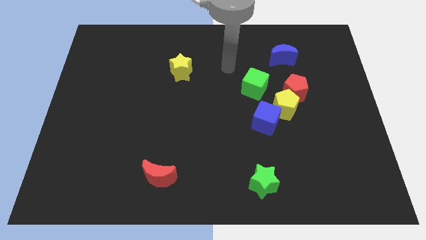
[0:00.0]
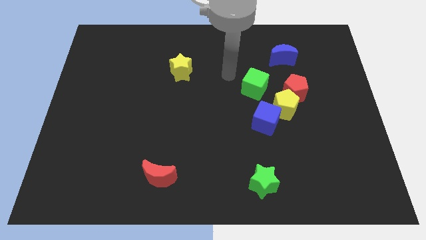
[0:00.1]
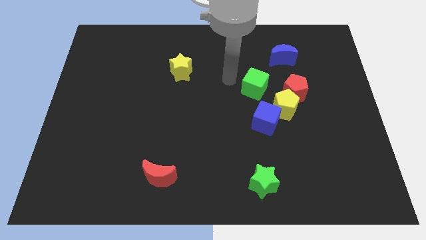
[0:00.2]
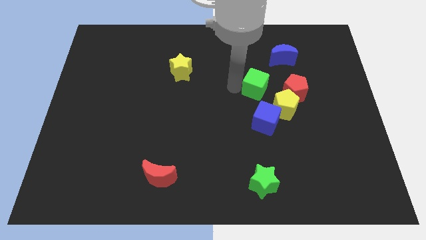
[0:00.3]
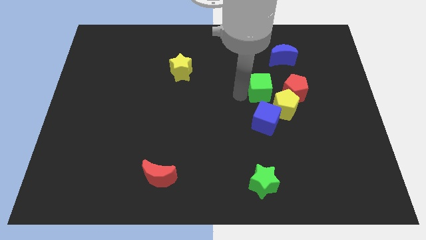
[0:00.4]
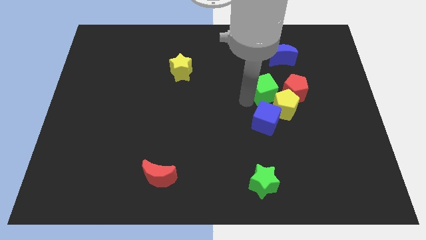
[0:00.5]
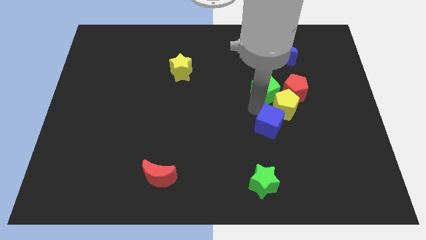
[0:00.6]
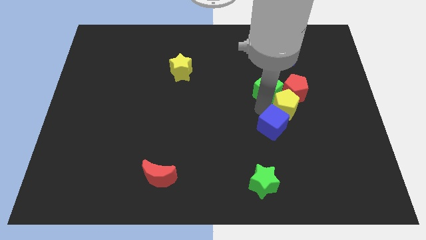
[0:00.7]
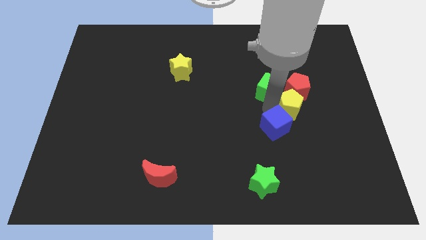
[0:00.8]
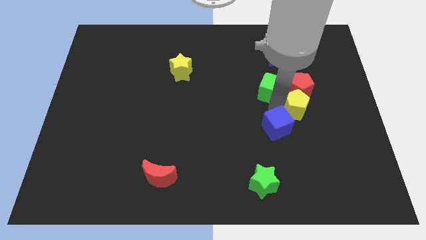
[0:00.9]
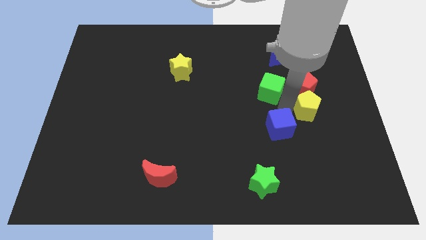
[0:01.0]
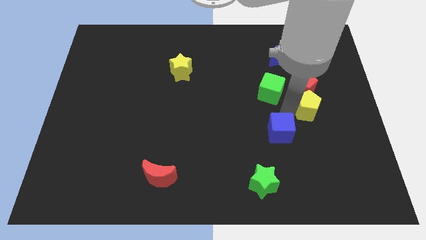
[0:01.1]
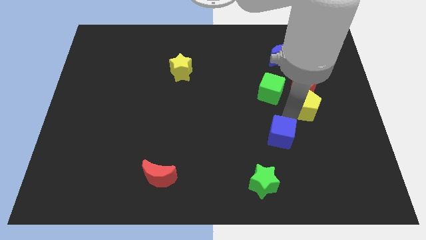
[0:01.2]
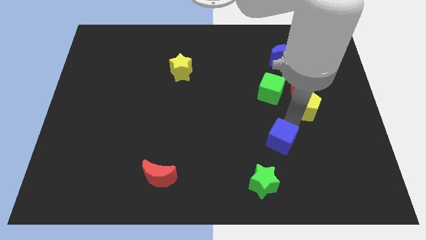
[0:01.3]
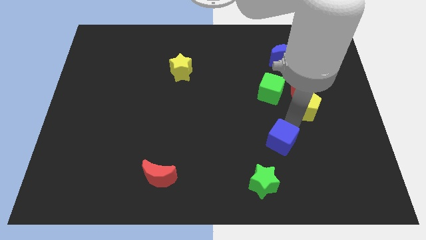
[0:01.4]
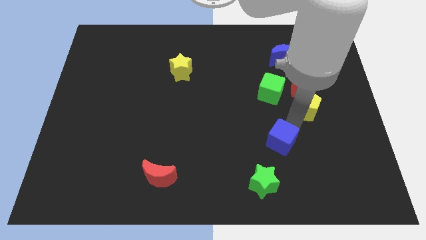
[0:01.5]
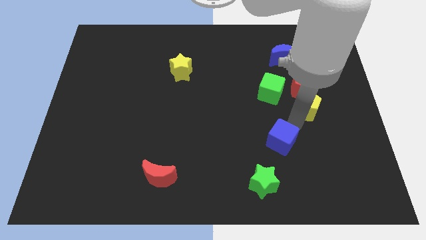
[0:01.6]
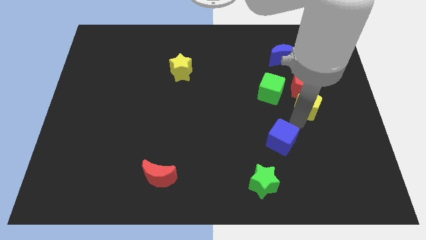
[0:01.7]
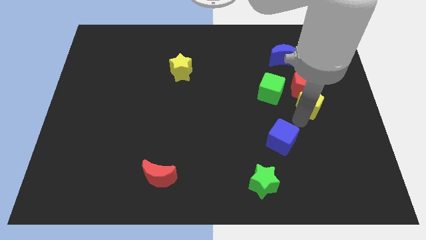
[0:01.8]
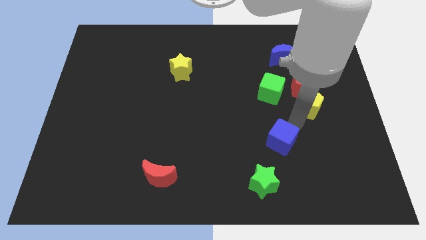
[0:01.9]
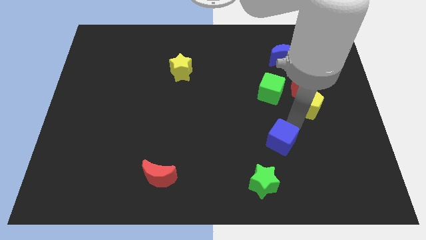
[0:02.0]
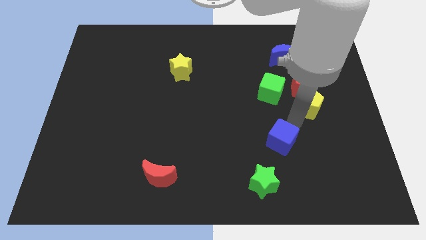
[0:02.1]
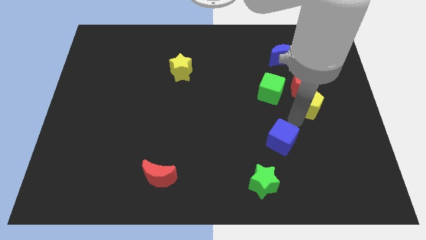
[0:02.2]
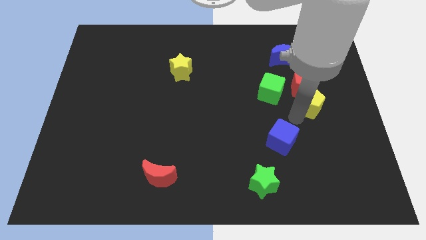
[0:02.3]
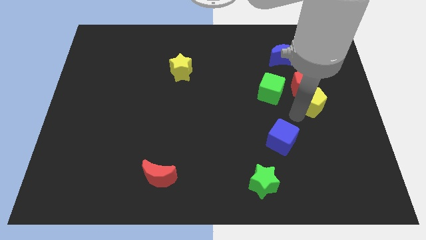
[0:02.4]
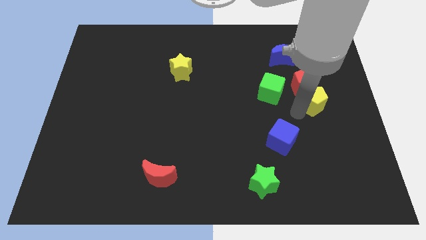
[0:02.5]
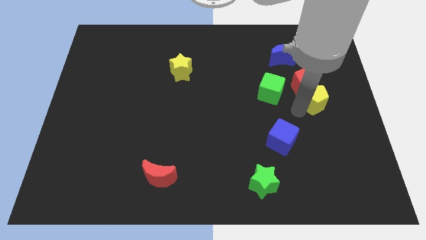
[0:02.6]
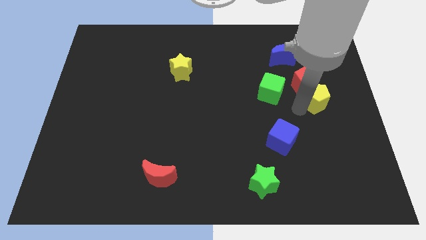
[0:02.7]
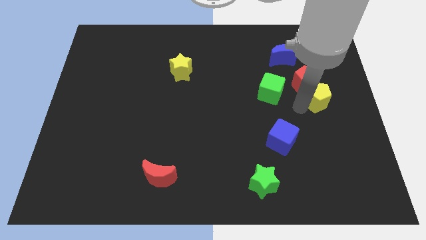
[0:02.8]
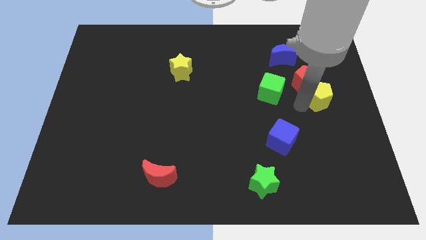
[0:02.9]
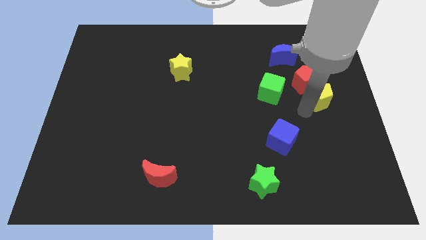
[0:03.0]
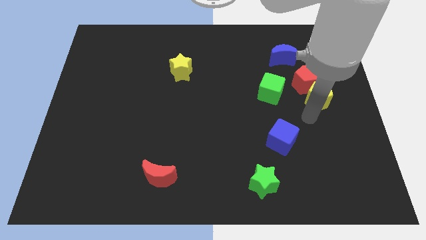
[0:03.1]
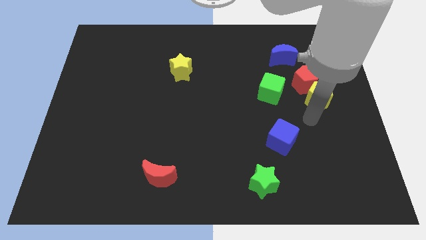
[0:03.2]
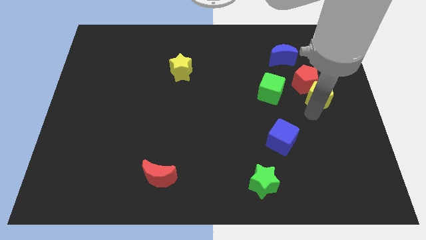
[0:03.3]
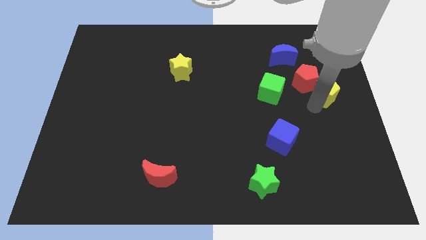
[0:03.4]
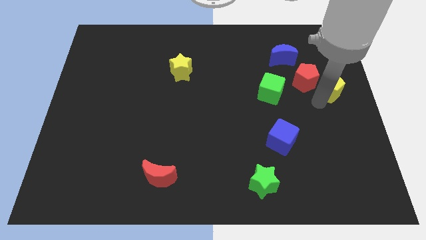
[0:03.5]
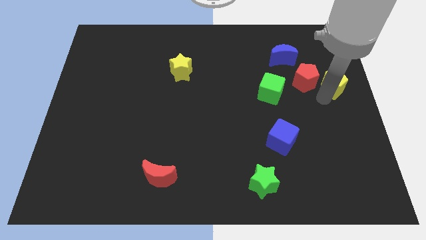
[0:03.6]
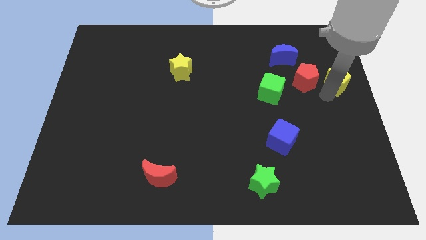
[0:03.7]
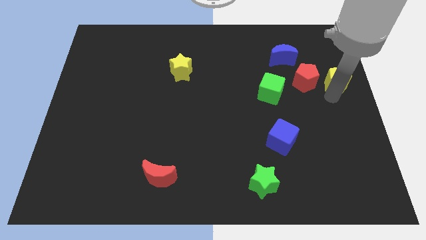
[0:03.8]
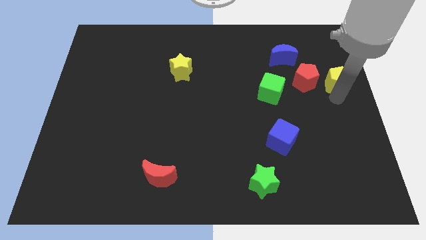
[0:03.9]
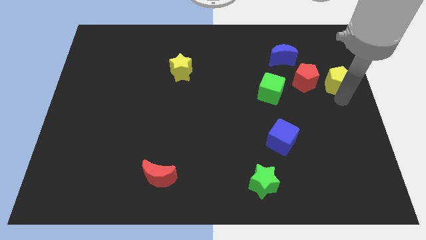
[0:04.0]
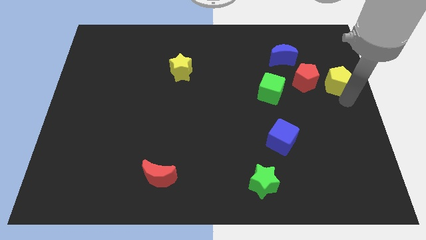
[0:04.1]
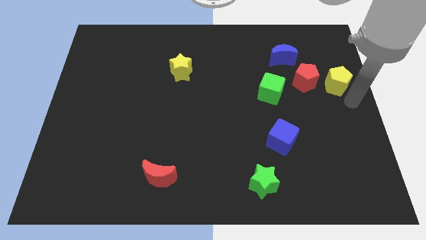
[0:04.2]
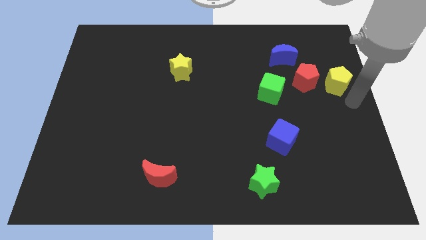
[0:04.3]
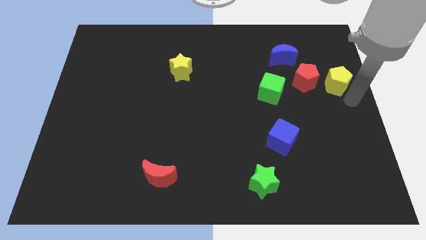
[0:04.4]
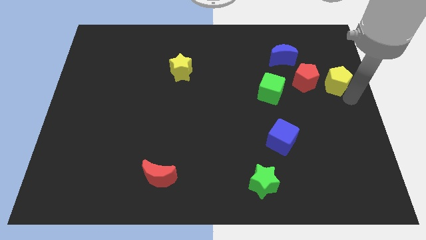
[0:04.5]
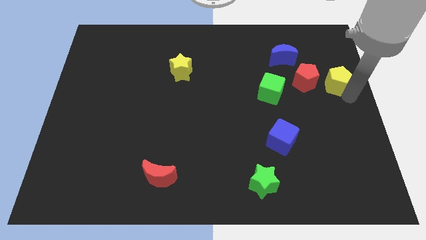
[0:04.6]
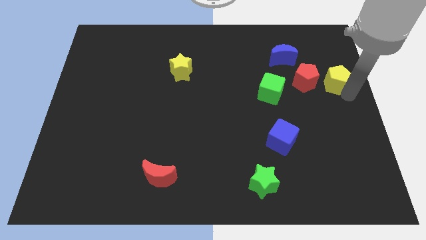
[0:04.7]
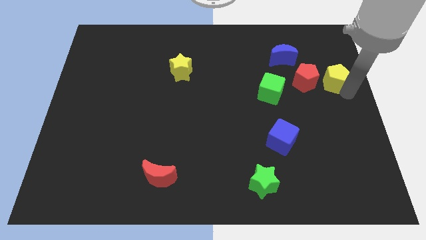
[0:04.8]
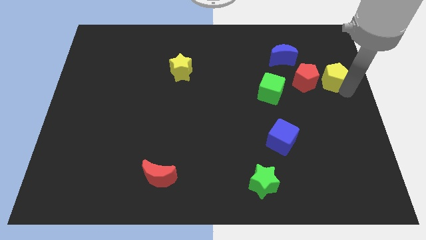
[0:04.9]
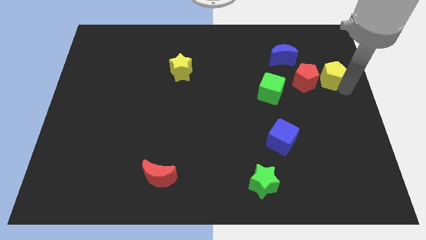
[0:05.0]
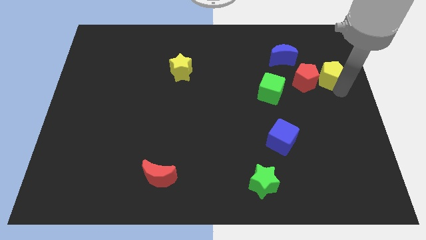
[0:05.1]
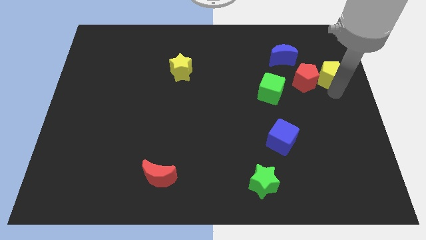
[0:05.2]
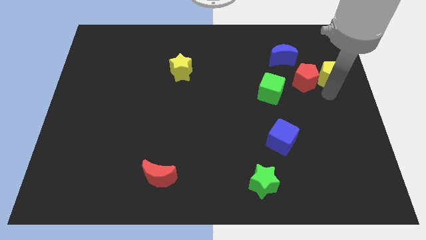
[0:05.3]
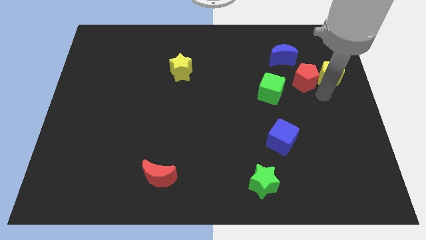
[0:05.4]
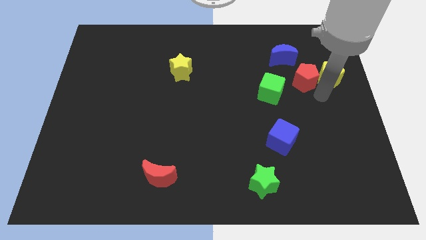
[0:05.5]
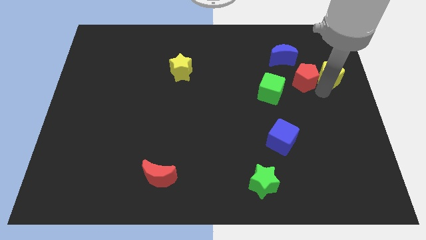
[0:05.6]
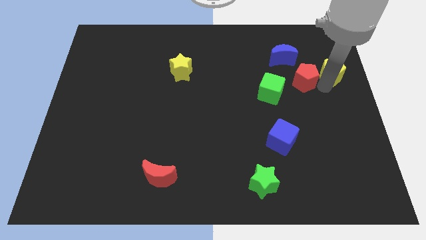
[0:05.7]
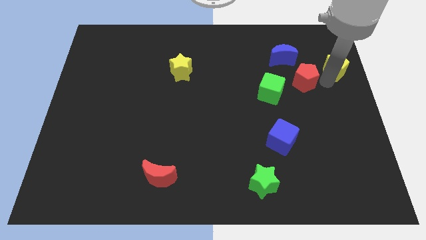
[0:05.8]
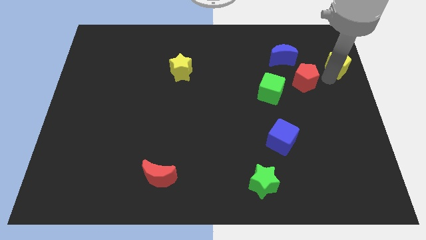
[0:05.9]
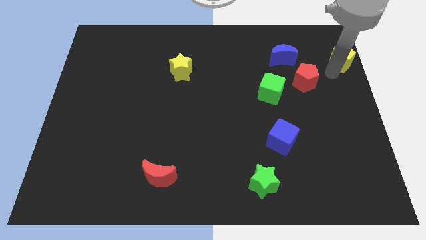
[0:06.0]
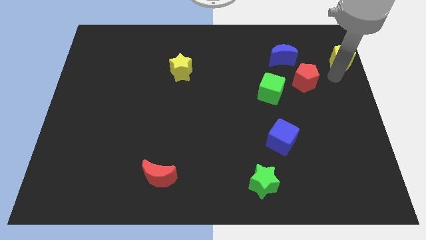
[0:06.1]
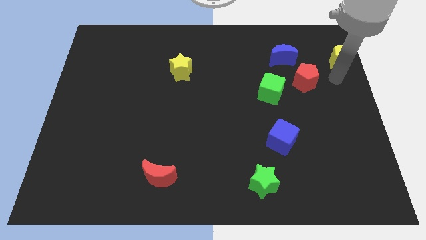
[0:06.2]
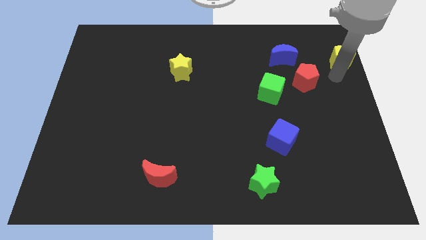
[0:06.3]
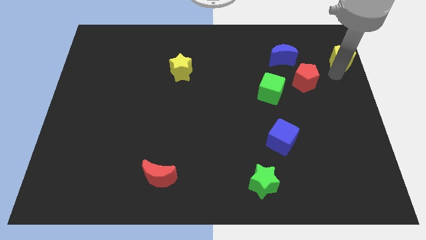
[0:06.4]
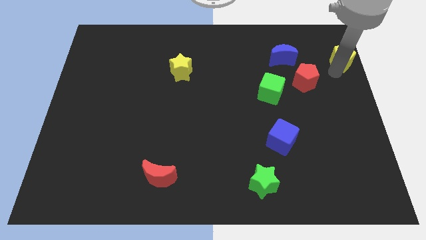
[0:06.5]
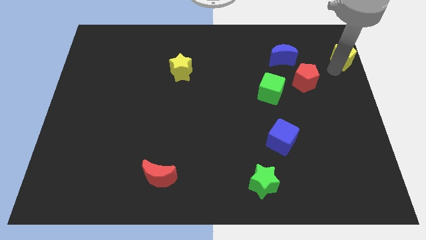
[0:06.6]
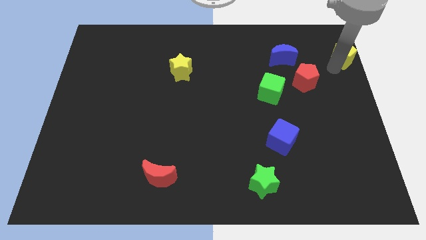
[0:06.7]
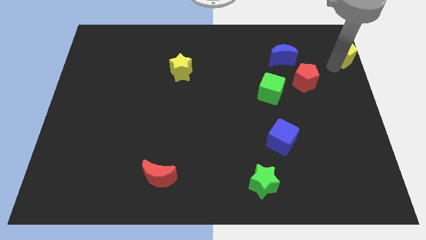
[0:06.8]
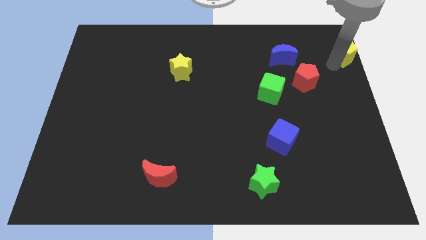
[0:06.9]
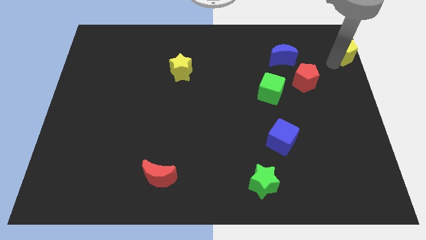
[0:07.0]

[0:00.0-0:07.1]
move the yellow pentagon to the top right
